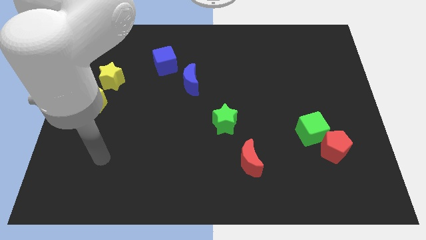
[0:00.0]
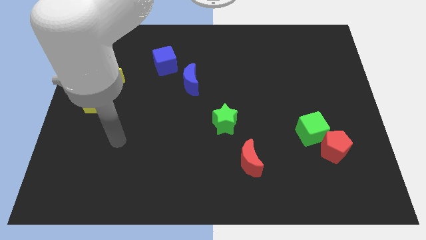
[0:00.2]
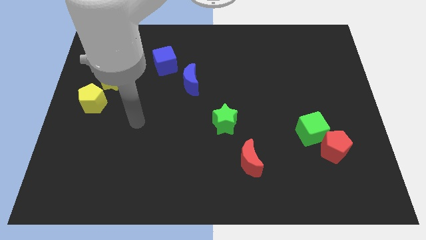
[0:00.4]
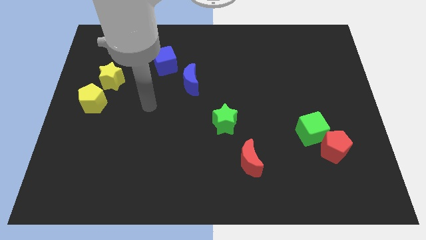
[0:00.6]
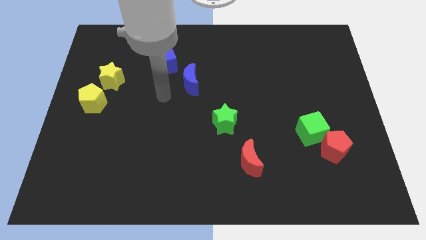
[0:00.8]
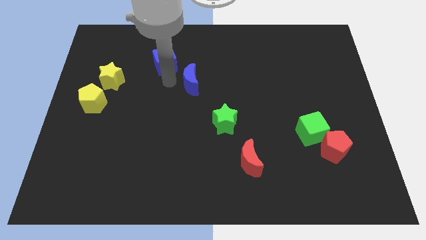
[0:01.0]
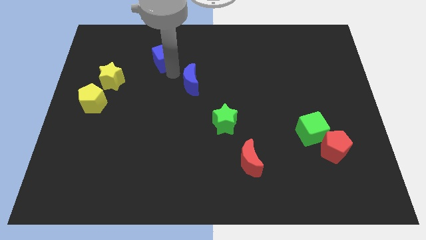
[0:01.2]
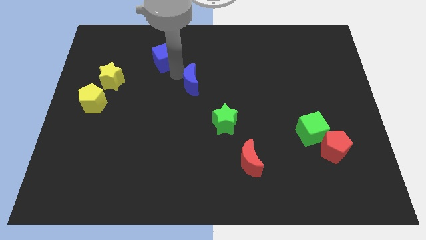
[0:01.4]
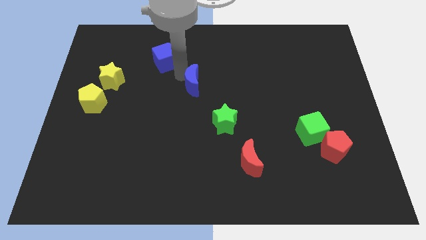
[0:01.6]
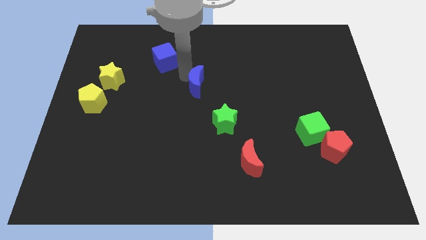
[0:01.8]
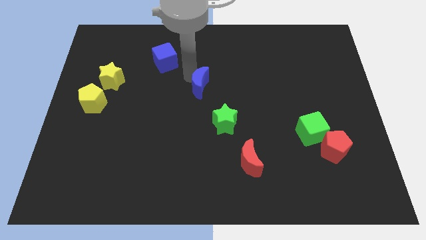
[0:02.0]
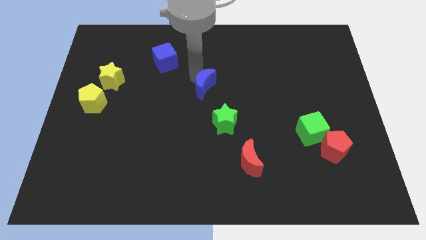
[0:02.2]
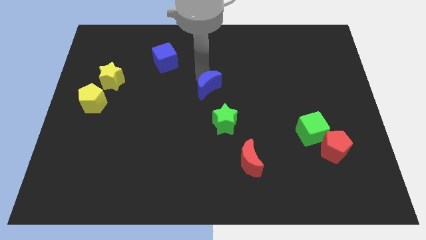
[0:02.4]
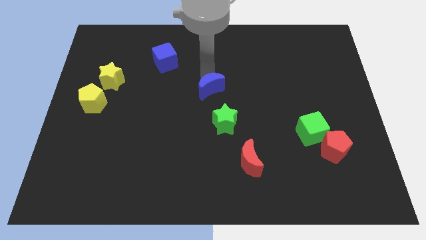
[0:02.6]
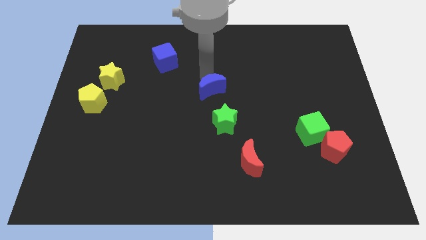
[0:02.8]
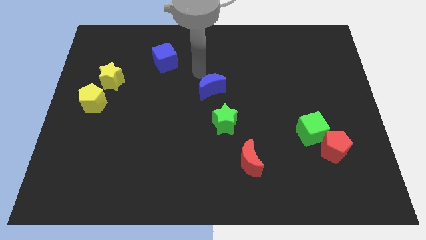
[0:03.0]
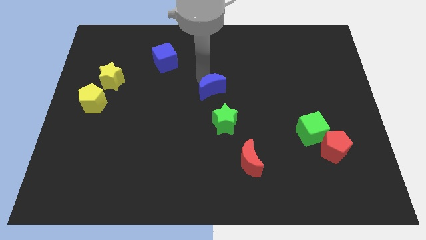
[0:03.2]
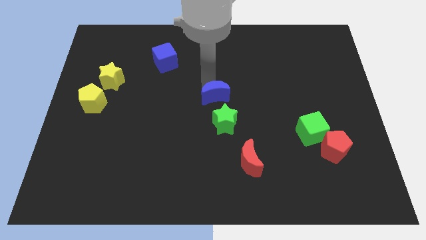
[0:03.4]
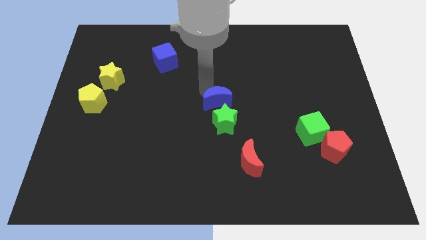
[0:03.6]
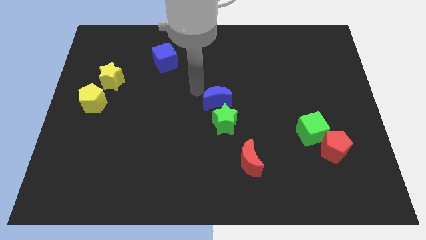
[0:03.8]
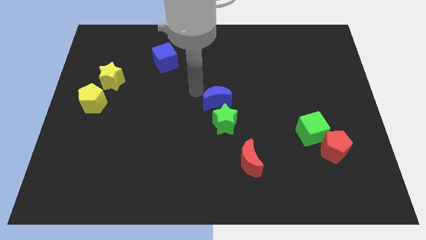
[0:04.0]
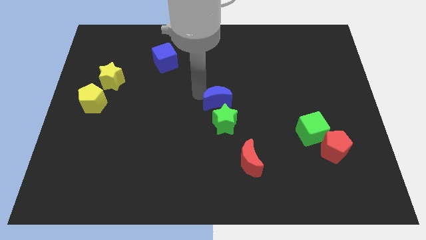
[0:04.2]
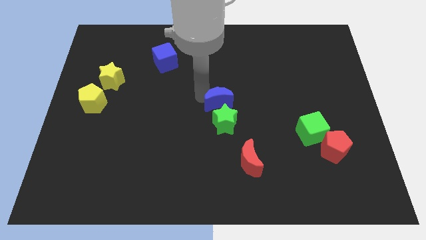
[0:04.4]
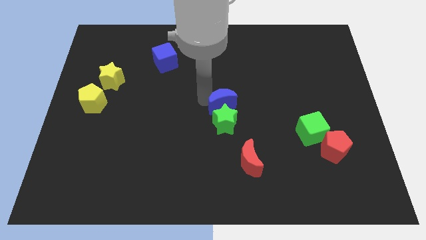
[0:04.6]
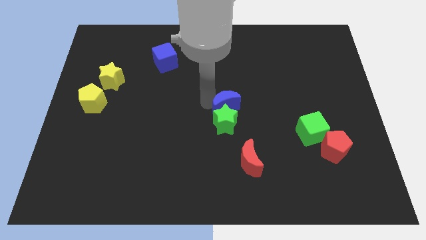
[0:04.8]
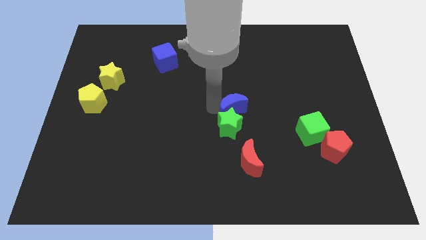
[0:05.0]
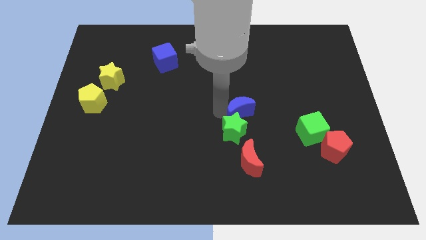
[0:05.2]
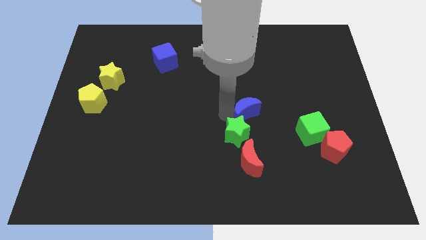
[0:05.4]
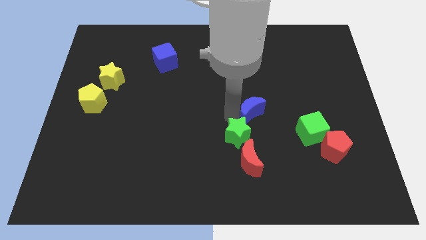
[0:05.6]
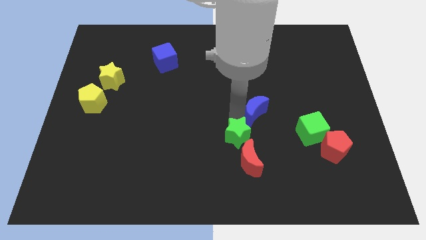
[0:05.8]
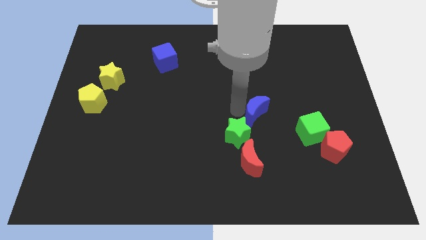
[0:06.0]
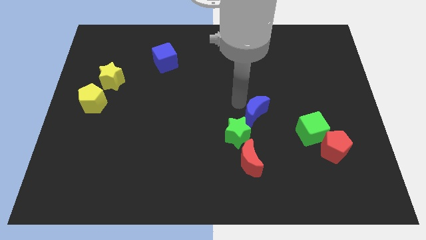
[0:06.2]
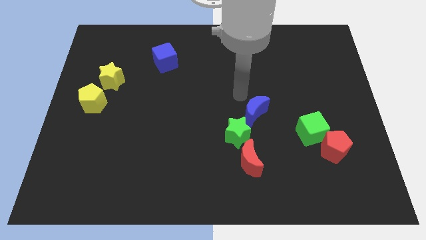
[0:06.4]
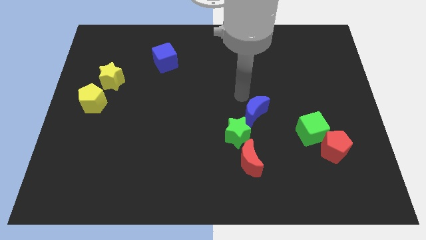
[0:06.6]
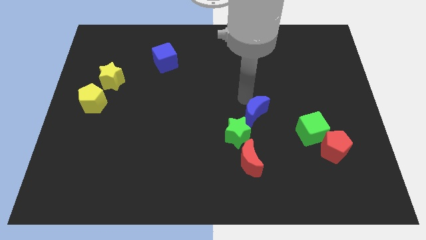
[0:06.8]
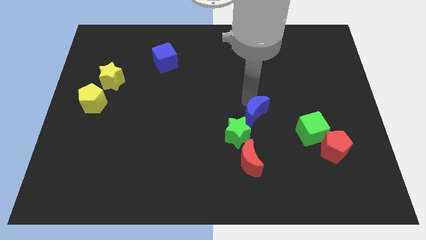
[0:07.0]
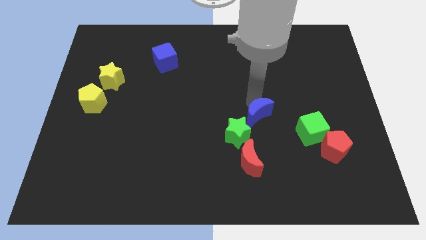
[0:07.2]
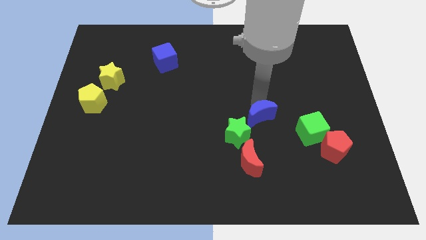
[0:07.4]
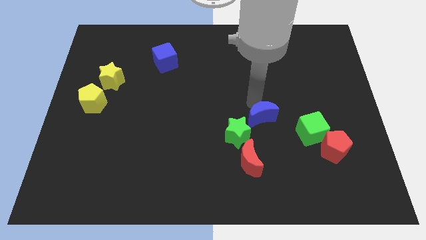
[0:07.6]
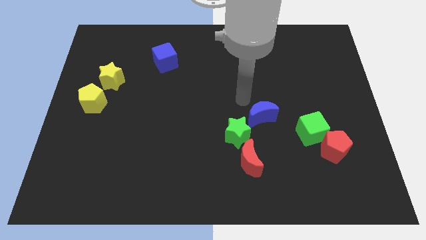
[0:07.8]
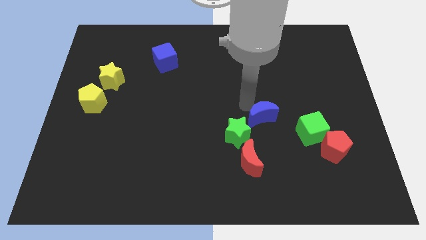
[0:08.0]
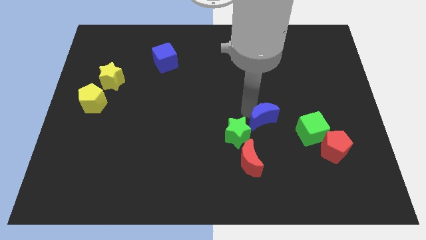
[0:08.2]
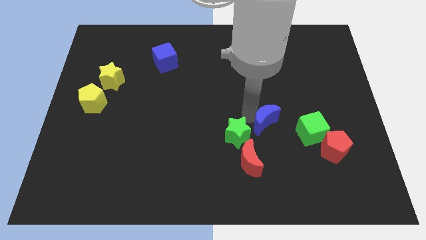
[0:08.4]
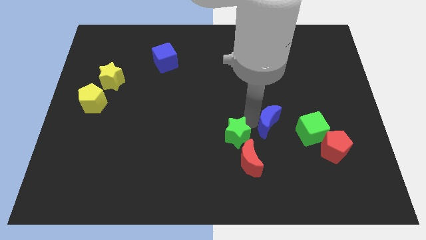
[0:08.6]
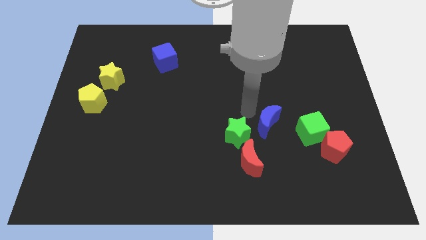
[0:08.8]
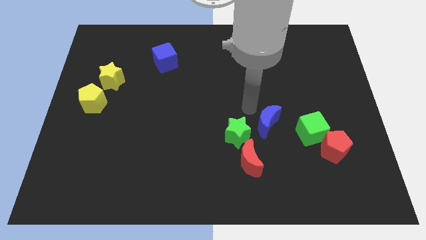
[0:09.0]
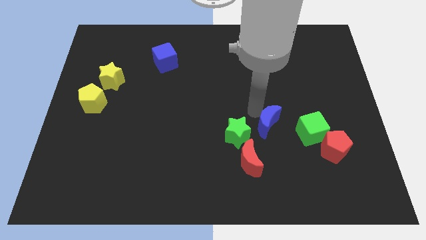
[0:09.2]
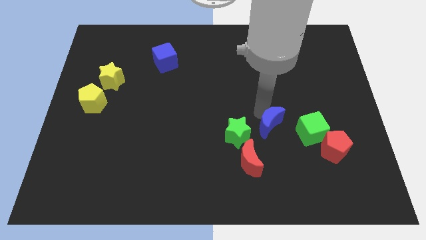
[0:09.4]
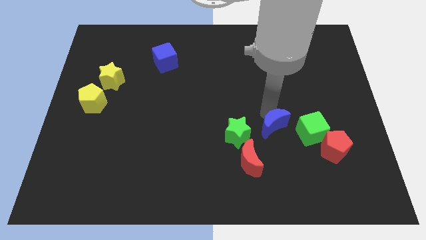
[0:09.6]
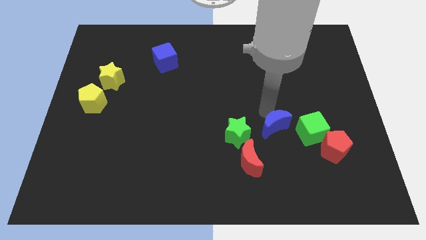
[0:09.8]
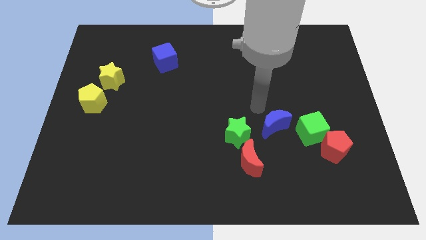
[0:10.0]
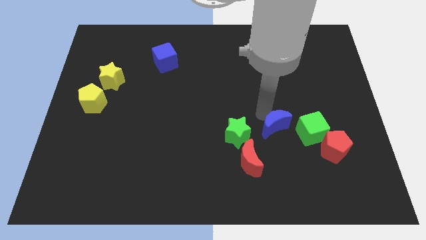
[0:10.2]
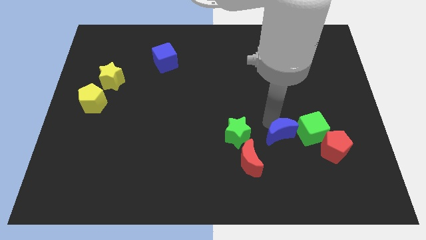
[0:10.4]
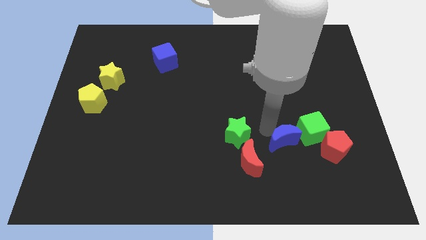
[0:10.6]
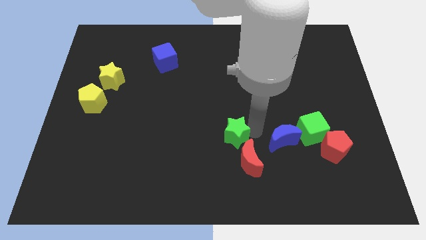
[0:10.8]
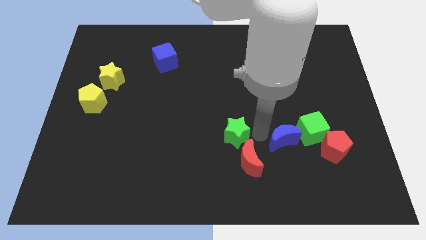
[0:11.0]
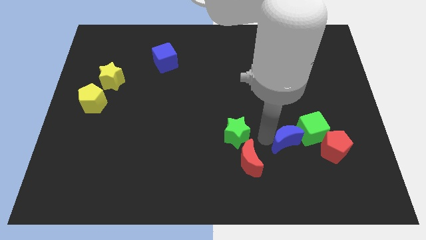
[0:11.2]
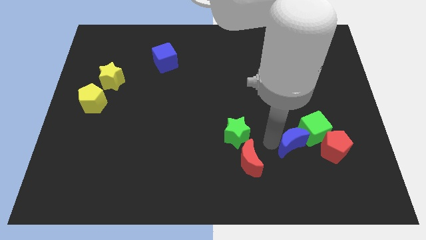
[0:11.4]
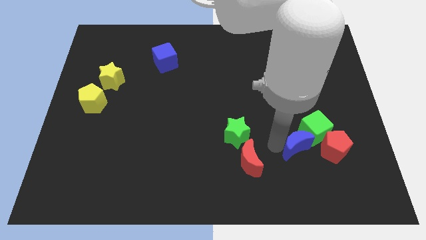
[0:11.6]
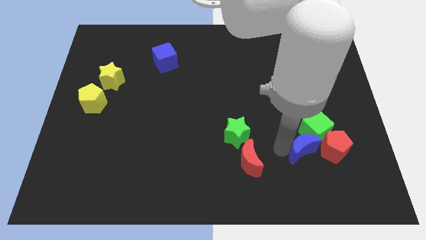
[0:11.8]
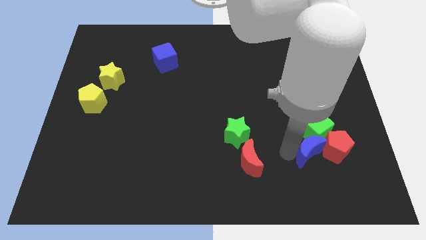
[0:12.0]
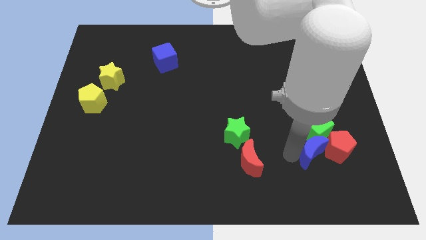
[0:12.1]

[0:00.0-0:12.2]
push the blue moon towards the red pentagon

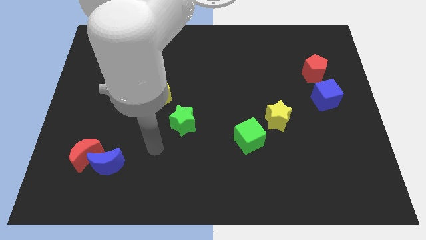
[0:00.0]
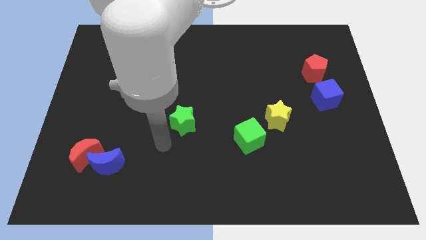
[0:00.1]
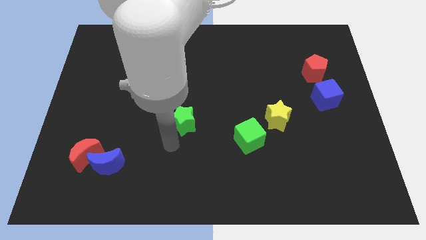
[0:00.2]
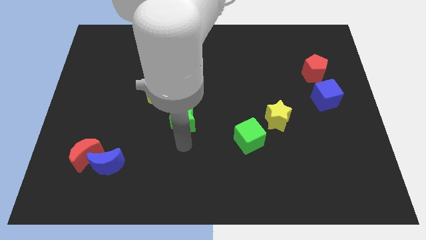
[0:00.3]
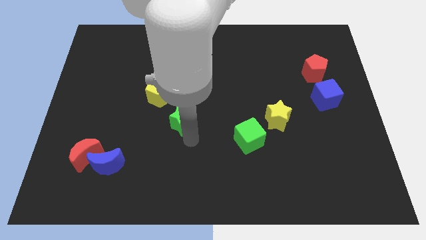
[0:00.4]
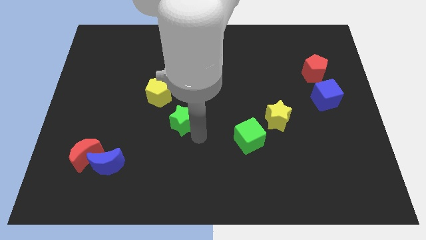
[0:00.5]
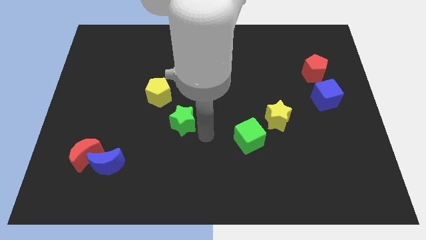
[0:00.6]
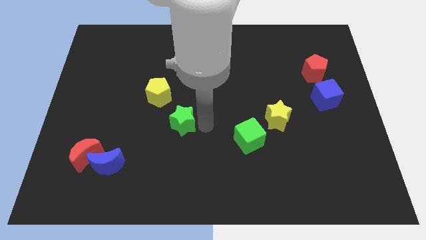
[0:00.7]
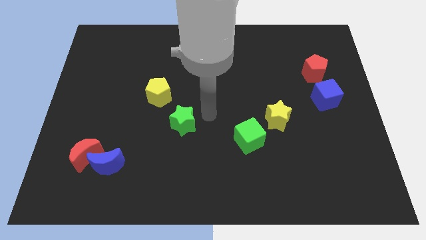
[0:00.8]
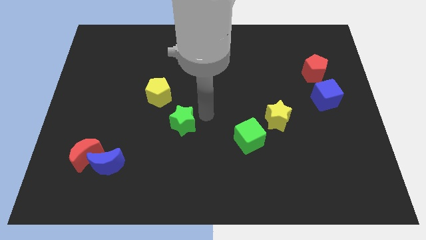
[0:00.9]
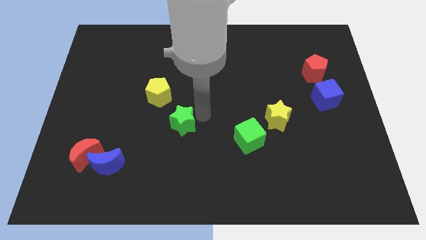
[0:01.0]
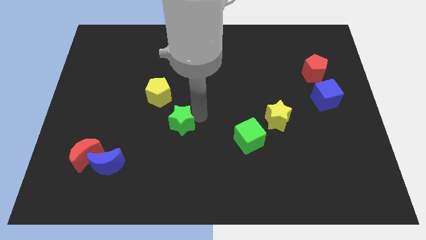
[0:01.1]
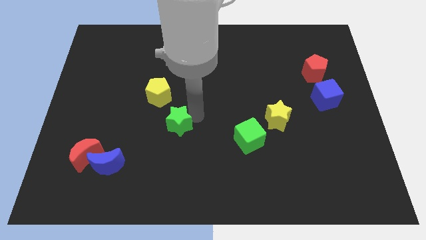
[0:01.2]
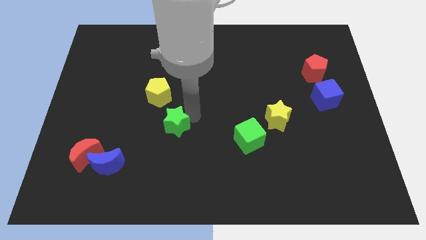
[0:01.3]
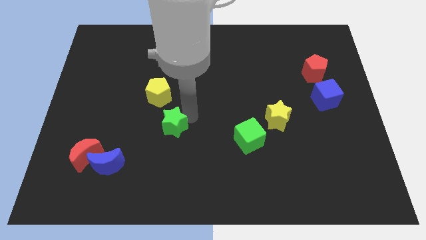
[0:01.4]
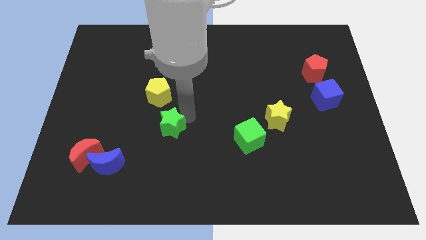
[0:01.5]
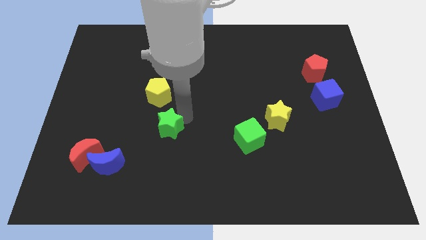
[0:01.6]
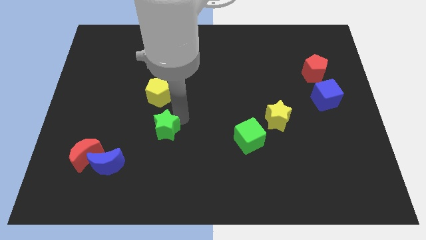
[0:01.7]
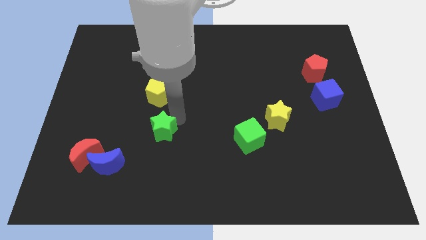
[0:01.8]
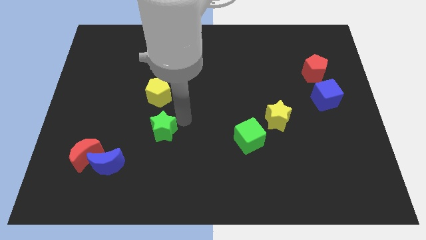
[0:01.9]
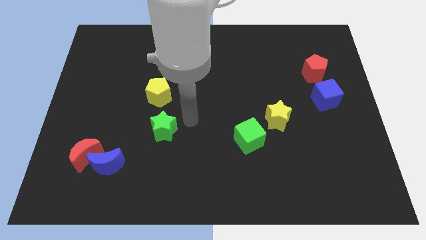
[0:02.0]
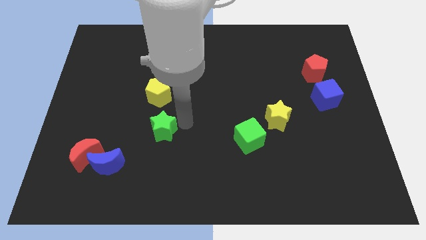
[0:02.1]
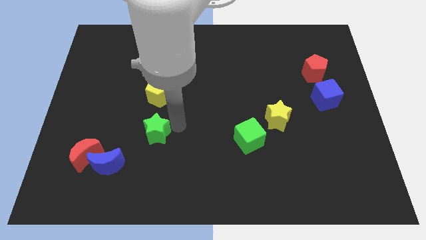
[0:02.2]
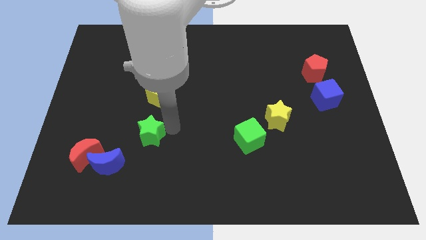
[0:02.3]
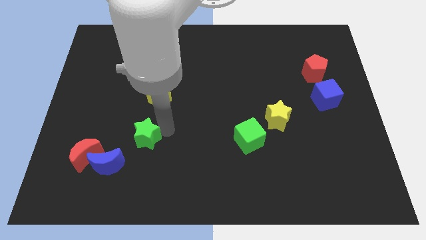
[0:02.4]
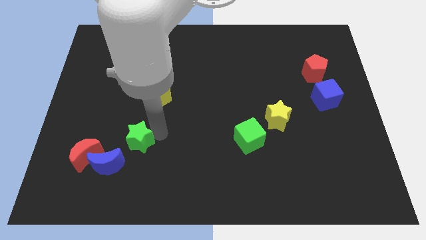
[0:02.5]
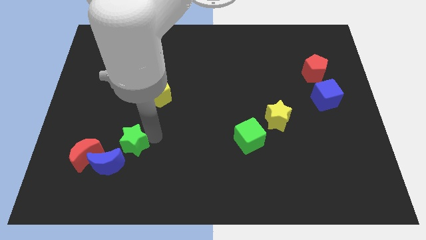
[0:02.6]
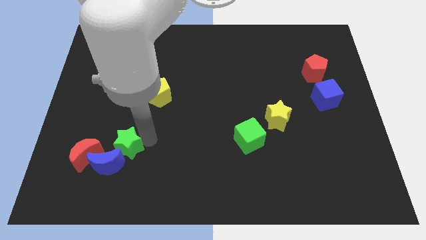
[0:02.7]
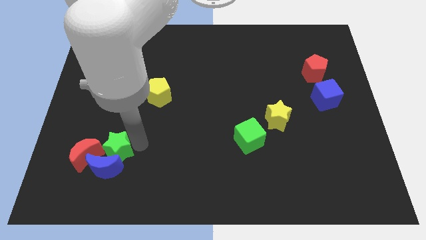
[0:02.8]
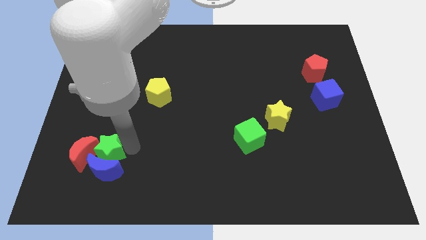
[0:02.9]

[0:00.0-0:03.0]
slide the green star next to the red moon
